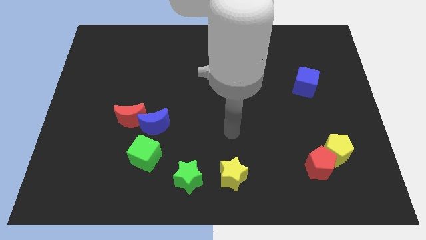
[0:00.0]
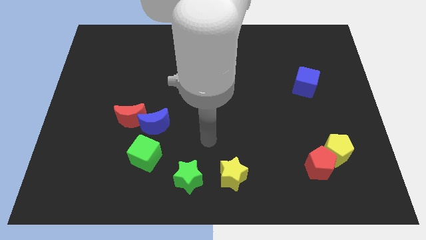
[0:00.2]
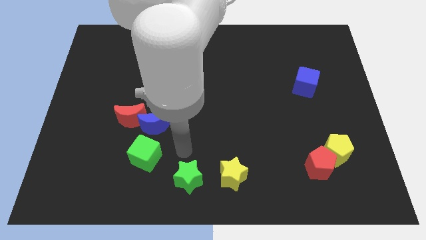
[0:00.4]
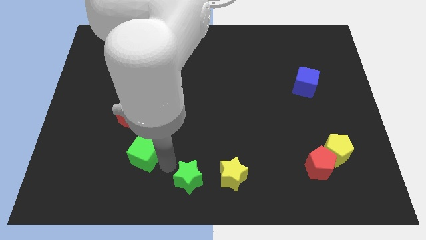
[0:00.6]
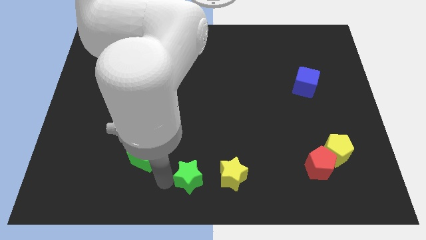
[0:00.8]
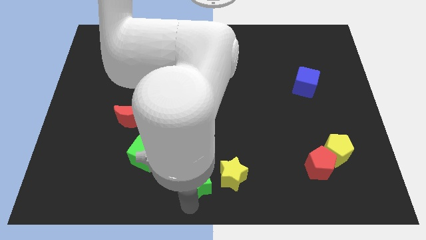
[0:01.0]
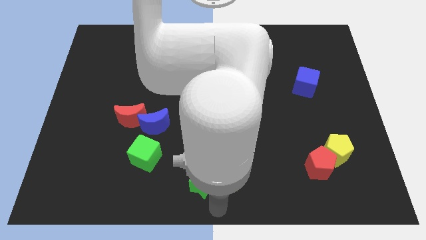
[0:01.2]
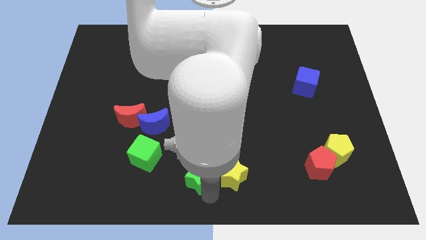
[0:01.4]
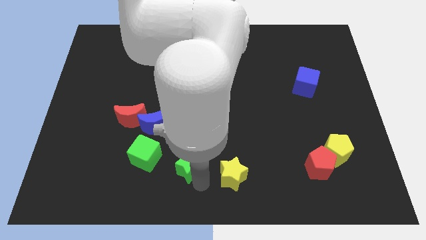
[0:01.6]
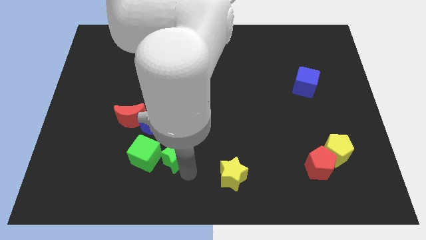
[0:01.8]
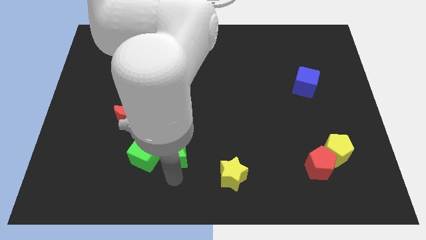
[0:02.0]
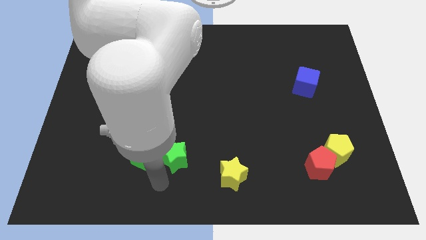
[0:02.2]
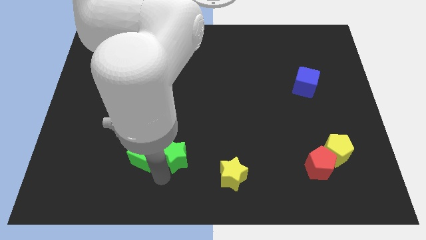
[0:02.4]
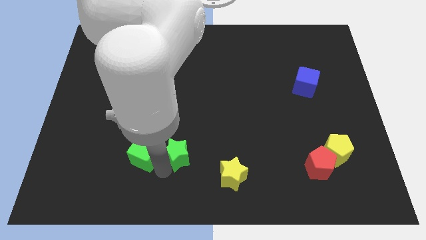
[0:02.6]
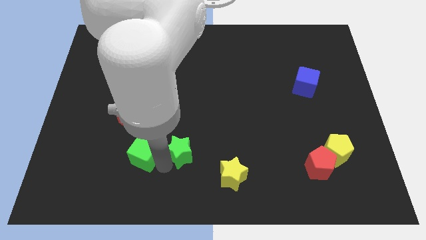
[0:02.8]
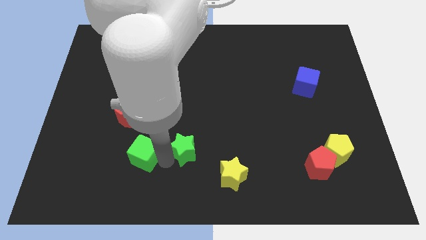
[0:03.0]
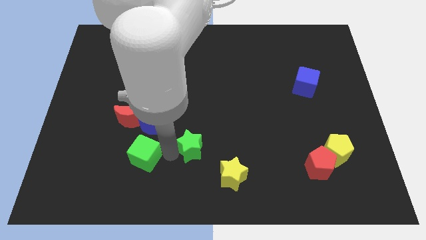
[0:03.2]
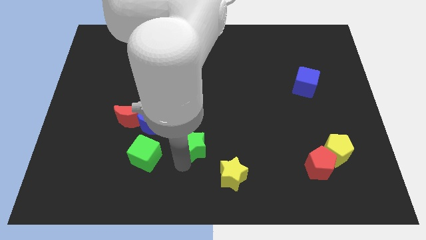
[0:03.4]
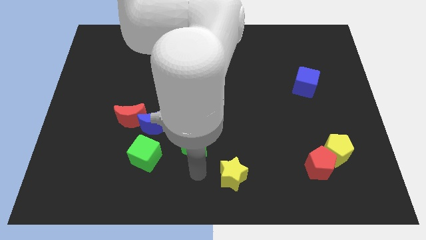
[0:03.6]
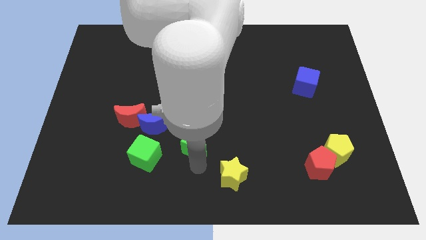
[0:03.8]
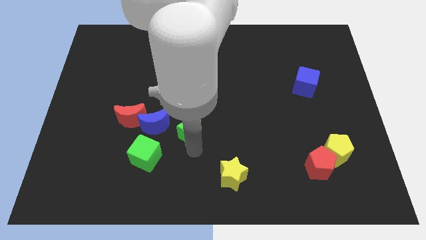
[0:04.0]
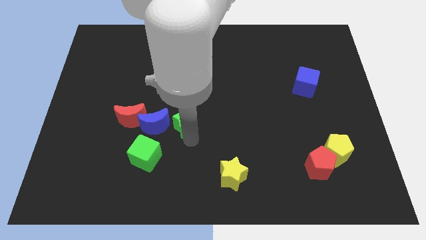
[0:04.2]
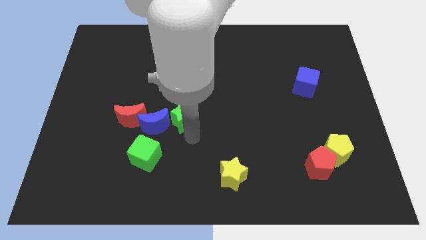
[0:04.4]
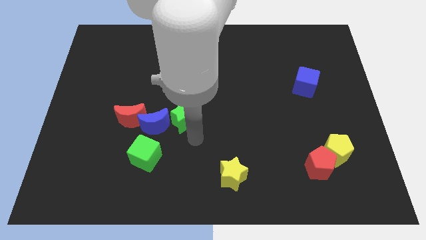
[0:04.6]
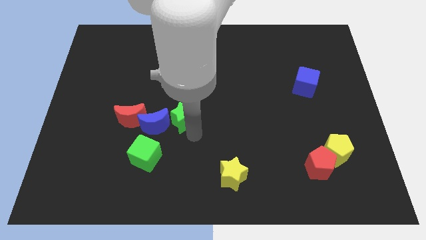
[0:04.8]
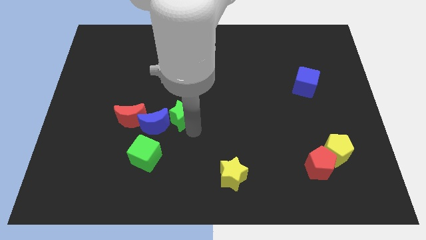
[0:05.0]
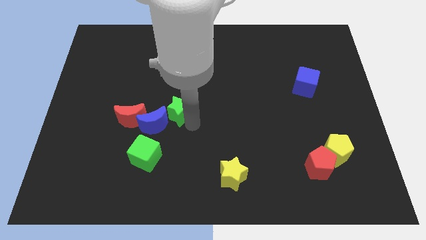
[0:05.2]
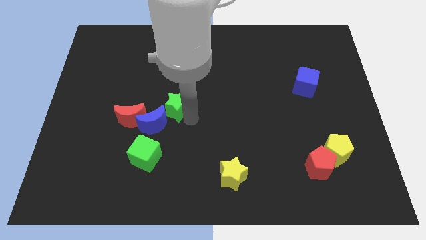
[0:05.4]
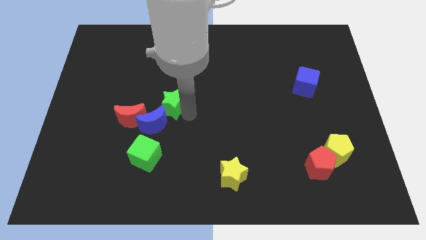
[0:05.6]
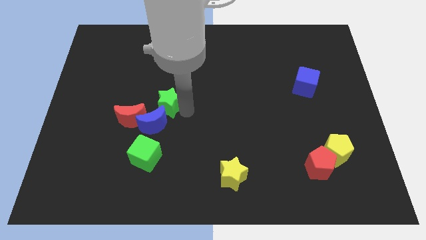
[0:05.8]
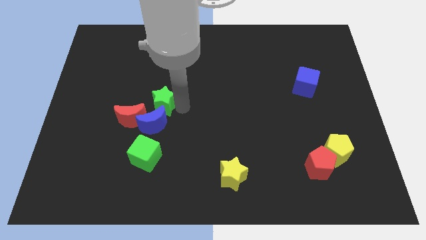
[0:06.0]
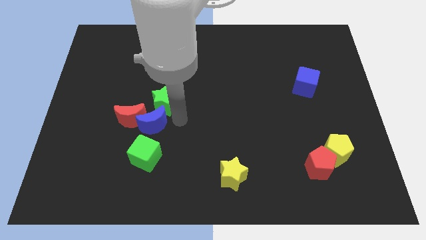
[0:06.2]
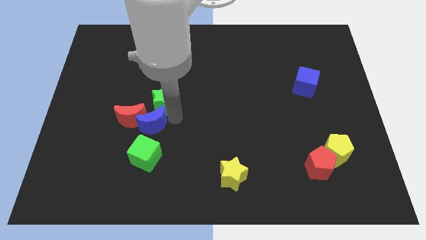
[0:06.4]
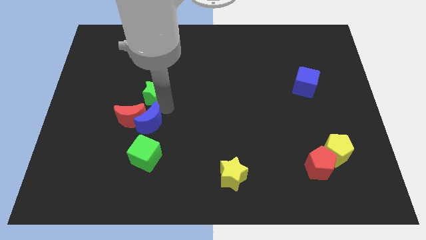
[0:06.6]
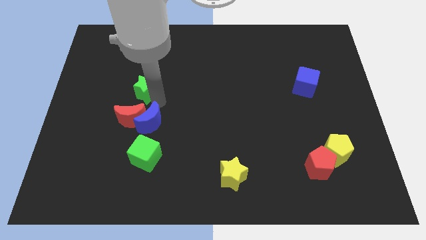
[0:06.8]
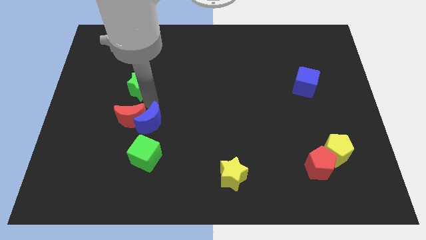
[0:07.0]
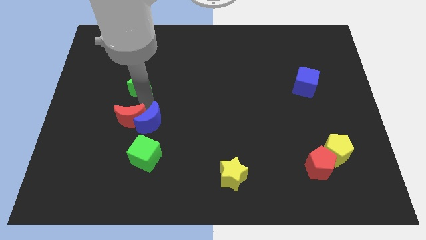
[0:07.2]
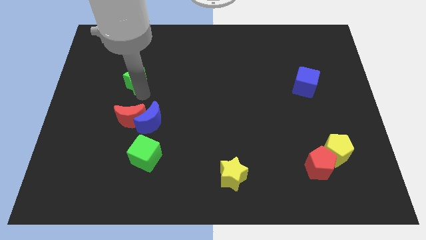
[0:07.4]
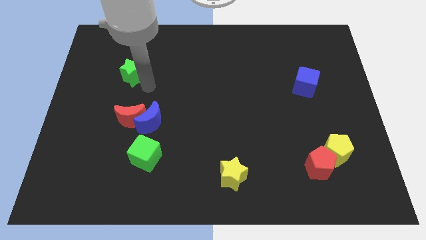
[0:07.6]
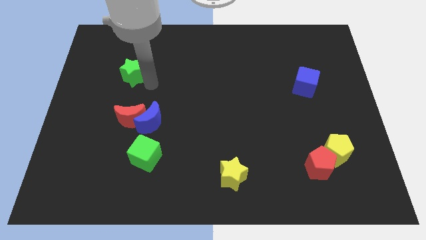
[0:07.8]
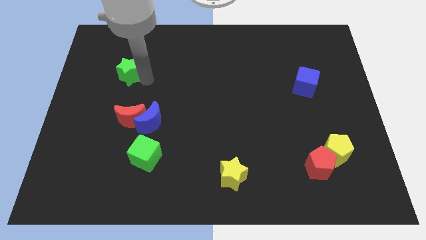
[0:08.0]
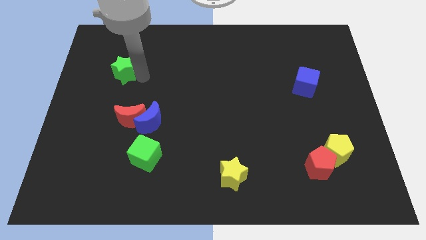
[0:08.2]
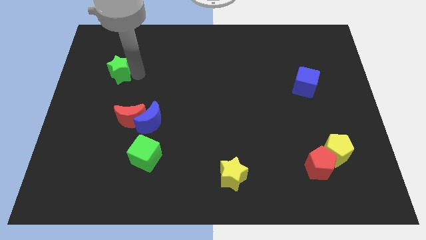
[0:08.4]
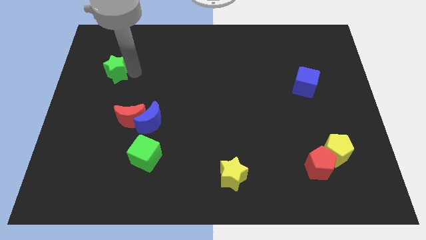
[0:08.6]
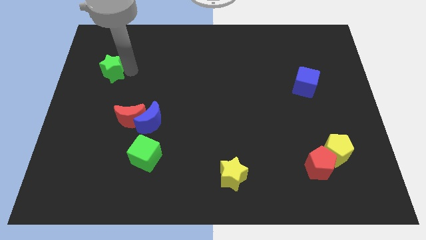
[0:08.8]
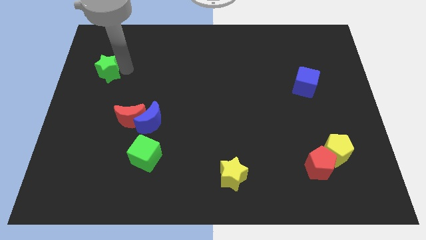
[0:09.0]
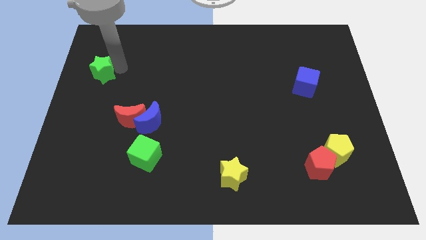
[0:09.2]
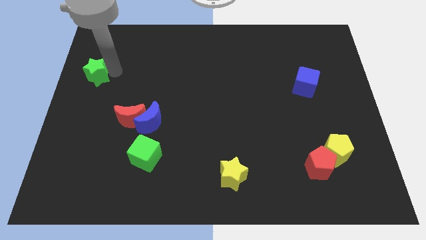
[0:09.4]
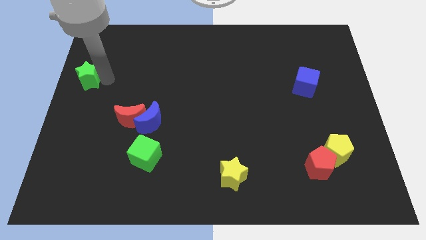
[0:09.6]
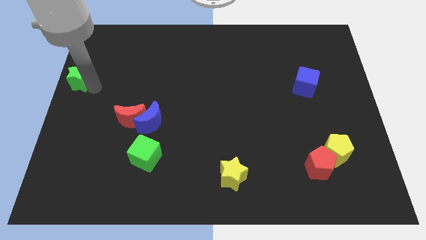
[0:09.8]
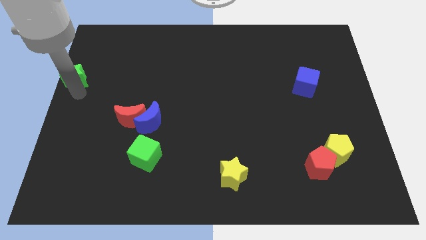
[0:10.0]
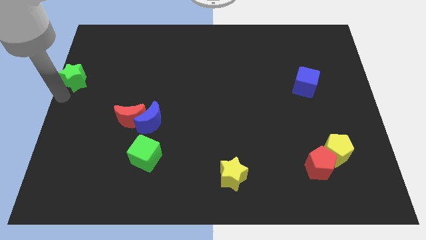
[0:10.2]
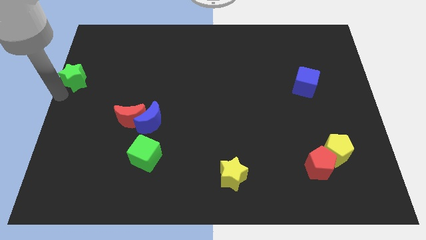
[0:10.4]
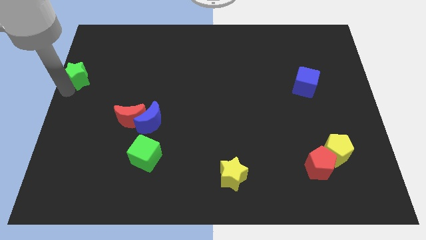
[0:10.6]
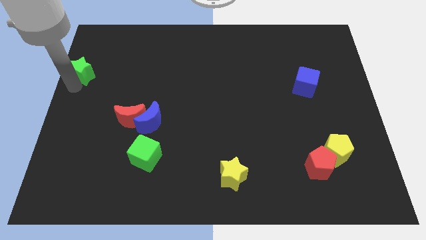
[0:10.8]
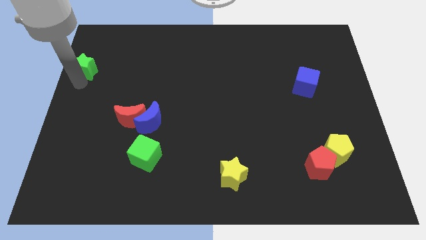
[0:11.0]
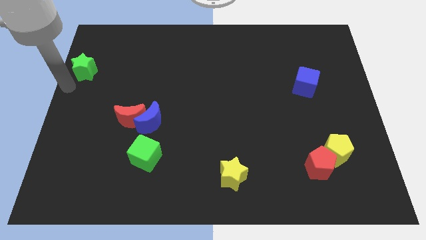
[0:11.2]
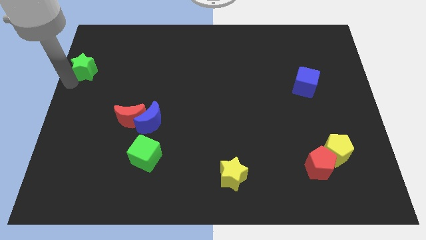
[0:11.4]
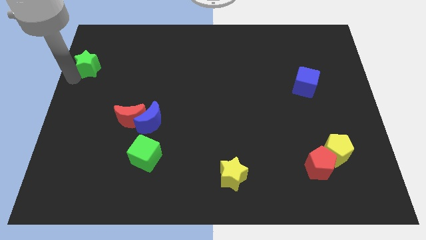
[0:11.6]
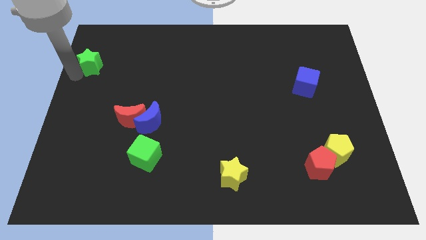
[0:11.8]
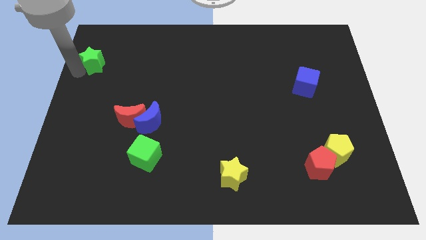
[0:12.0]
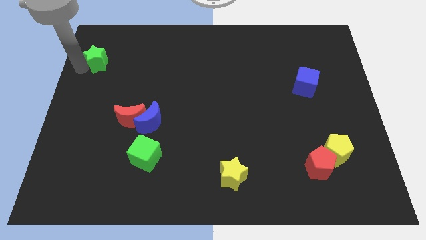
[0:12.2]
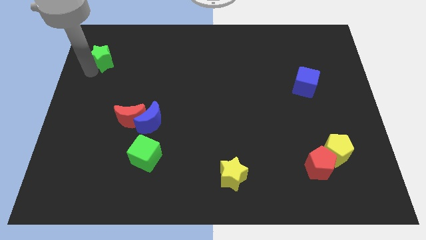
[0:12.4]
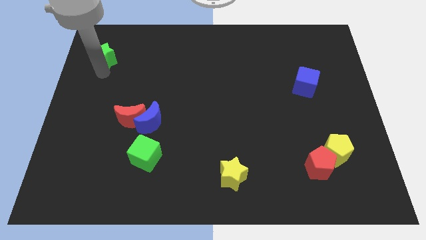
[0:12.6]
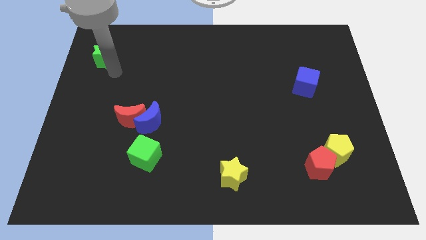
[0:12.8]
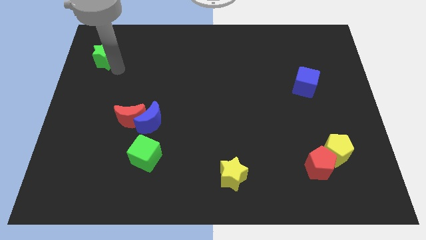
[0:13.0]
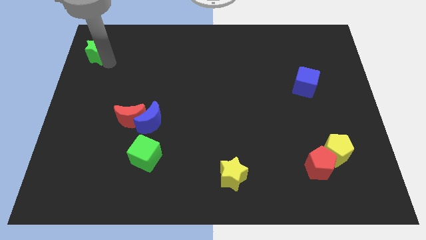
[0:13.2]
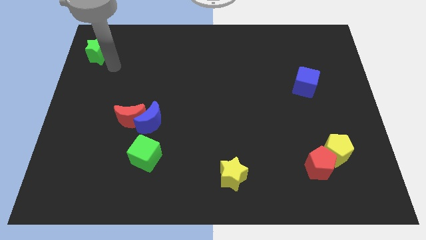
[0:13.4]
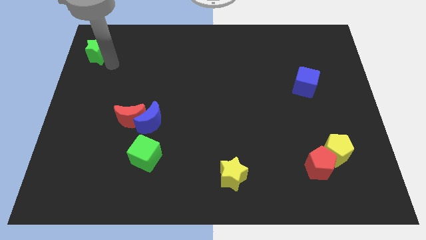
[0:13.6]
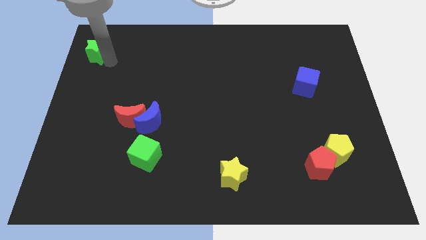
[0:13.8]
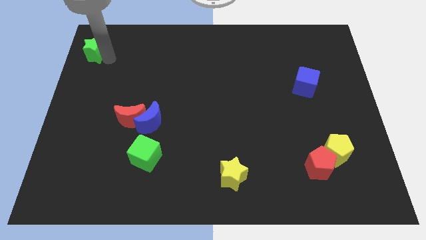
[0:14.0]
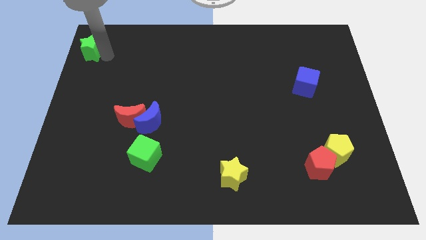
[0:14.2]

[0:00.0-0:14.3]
slide the green star to the top left
